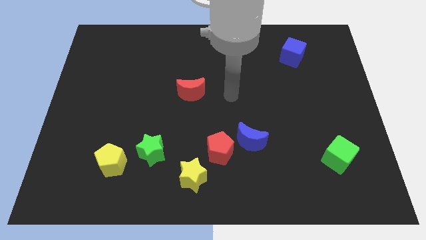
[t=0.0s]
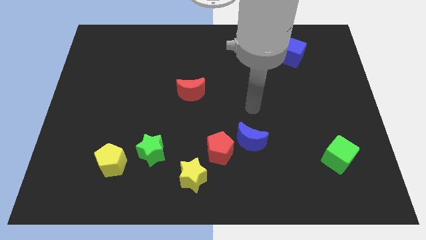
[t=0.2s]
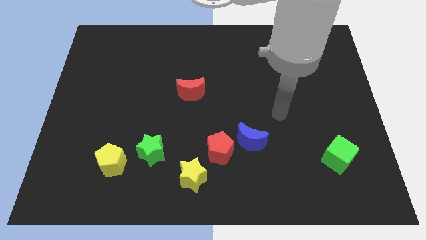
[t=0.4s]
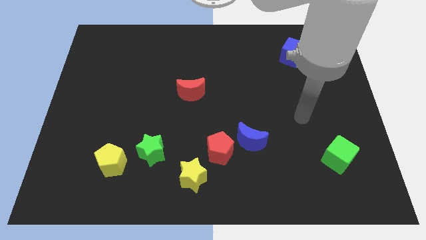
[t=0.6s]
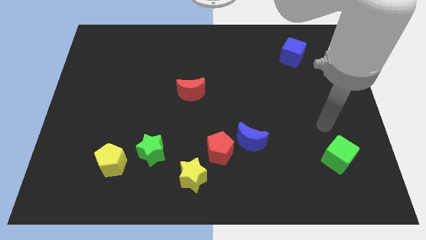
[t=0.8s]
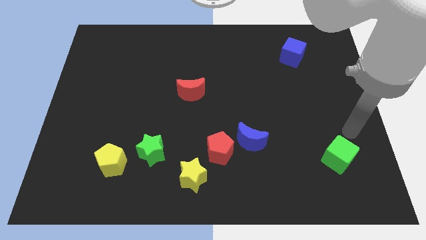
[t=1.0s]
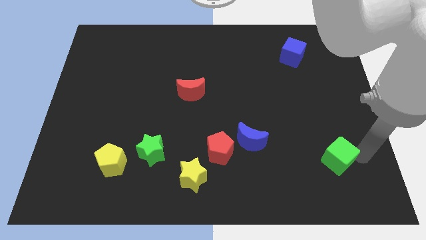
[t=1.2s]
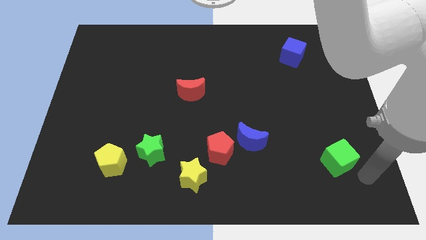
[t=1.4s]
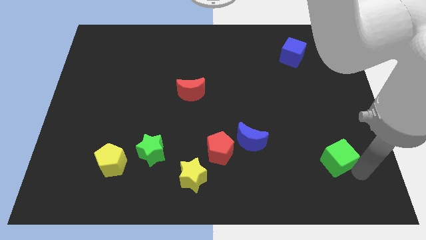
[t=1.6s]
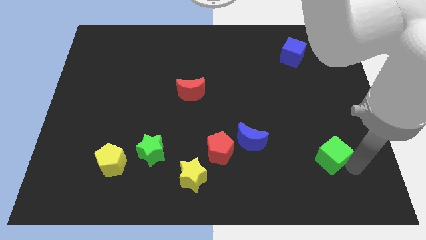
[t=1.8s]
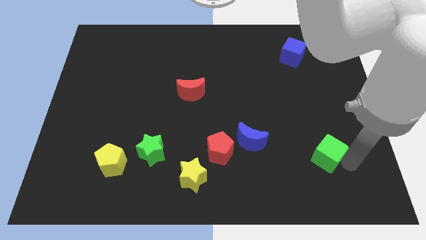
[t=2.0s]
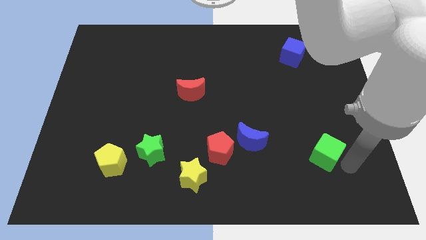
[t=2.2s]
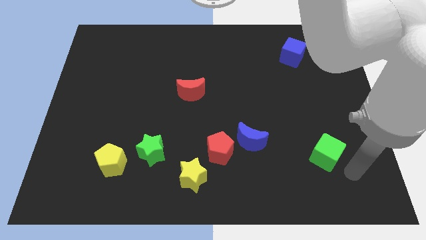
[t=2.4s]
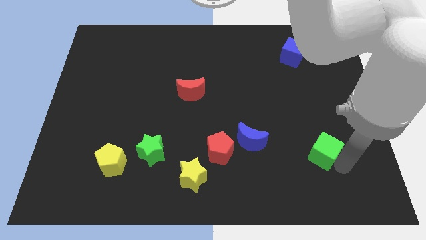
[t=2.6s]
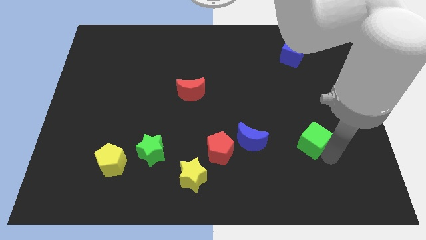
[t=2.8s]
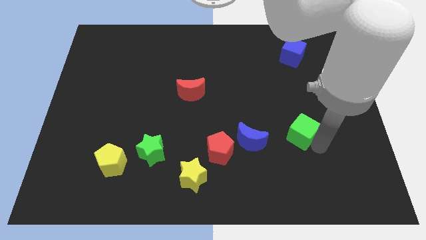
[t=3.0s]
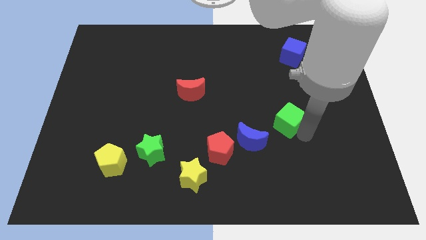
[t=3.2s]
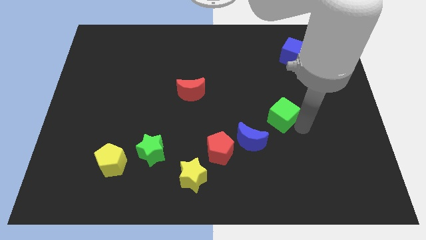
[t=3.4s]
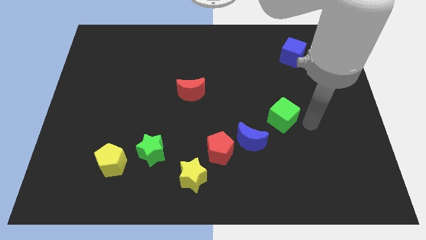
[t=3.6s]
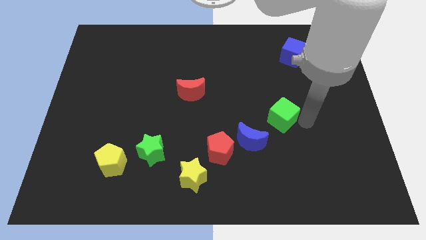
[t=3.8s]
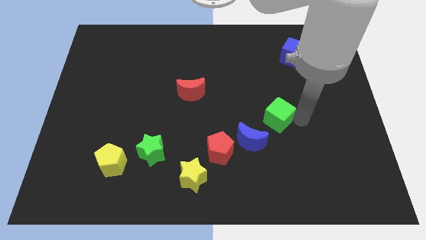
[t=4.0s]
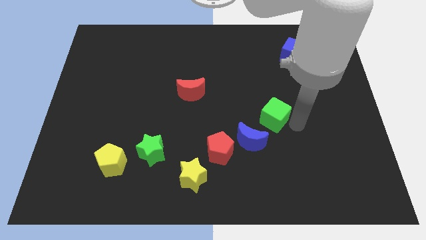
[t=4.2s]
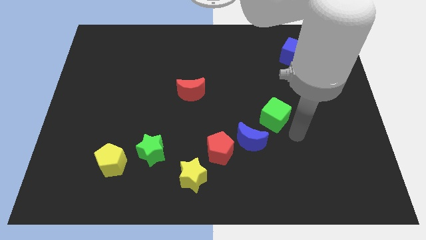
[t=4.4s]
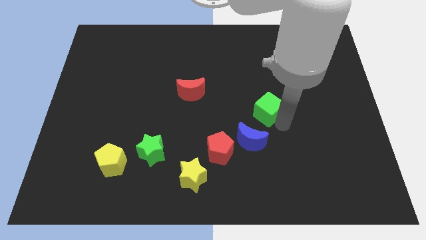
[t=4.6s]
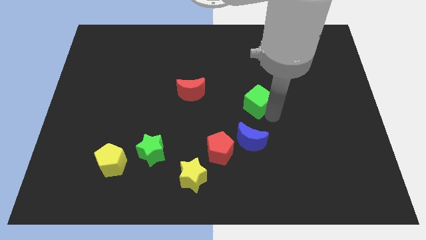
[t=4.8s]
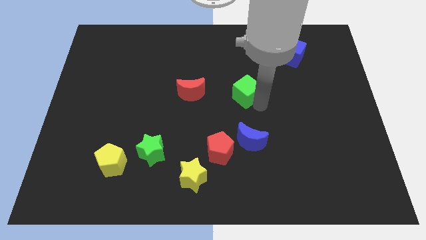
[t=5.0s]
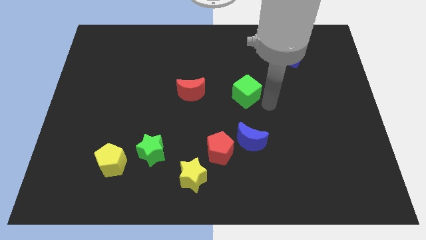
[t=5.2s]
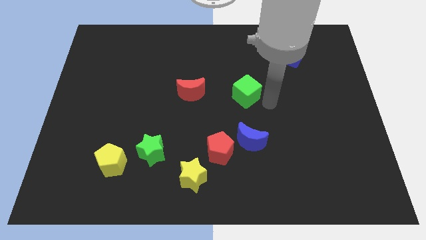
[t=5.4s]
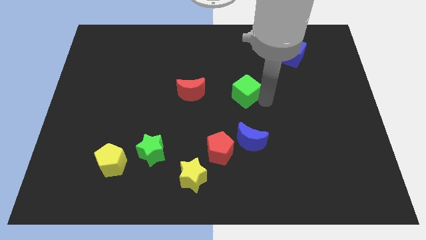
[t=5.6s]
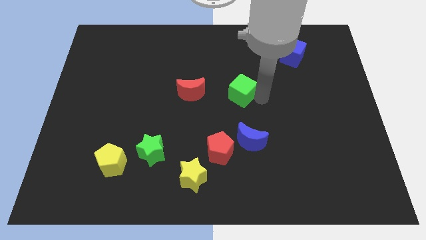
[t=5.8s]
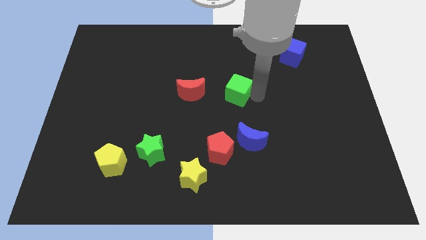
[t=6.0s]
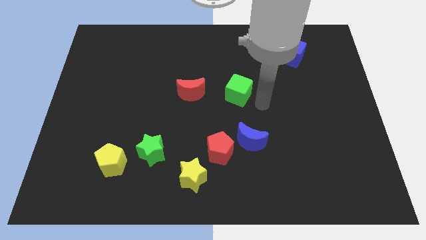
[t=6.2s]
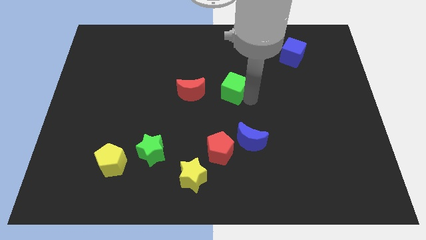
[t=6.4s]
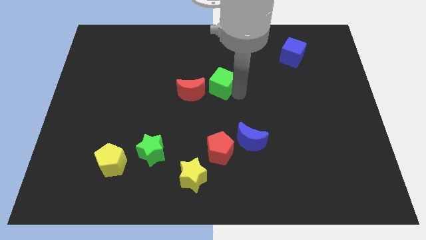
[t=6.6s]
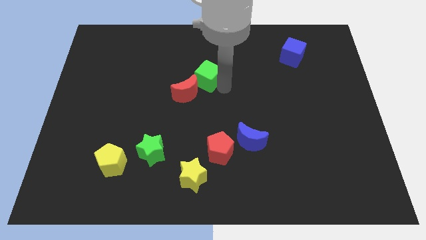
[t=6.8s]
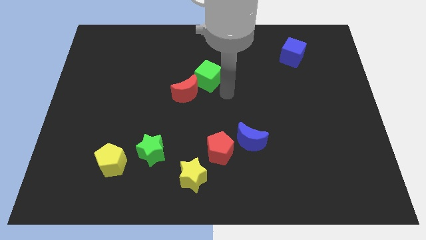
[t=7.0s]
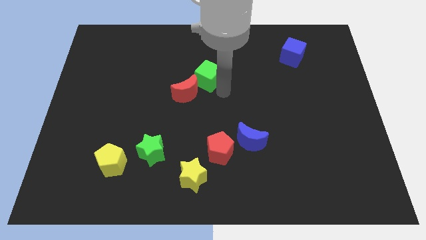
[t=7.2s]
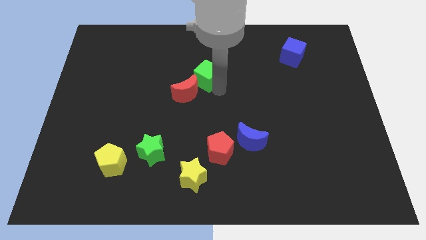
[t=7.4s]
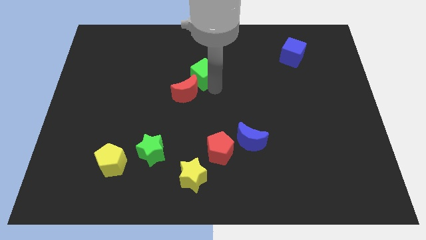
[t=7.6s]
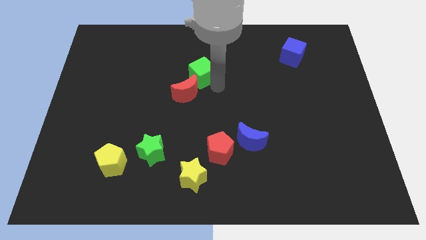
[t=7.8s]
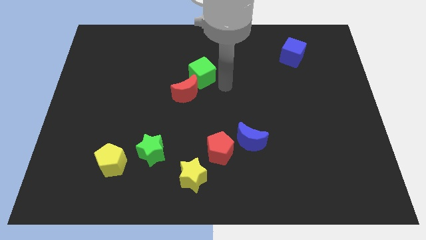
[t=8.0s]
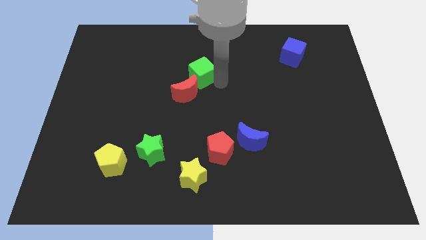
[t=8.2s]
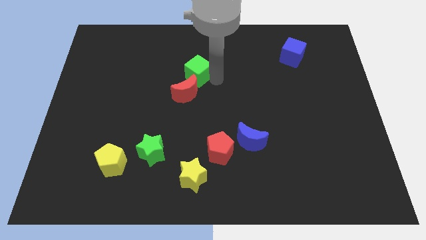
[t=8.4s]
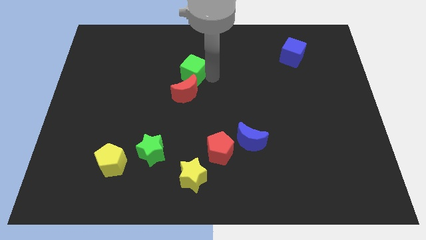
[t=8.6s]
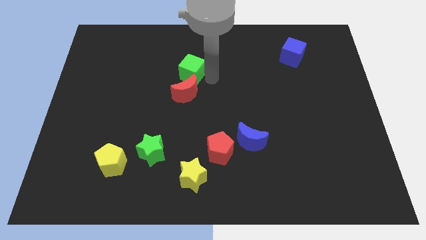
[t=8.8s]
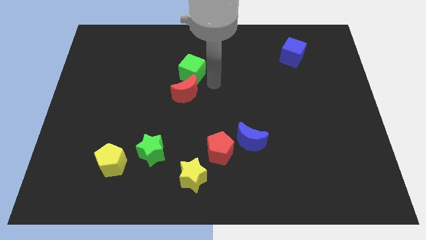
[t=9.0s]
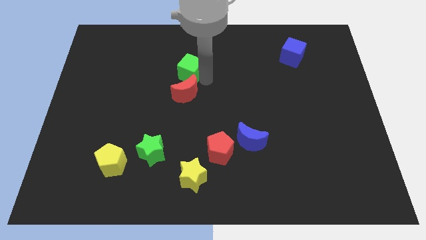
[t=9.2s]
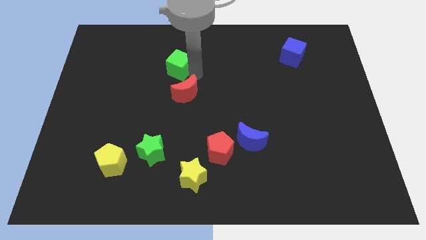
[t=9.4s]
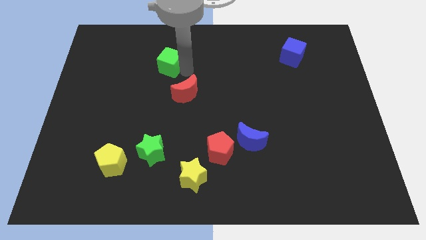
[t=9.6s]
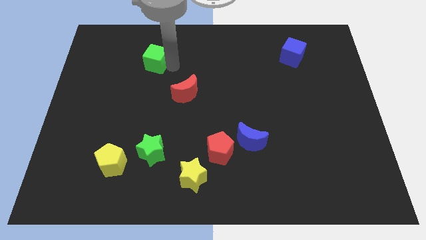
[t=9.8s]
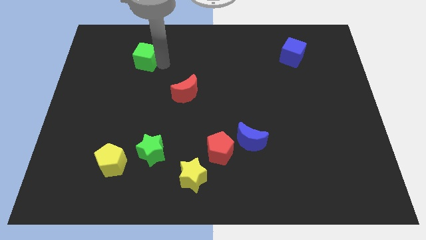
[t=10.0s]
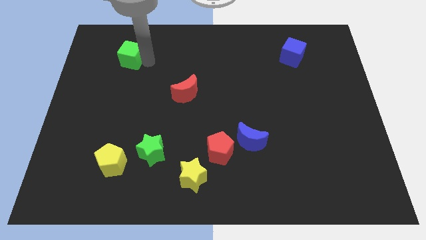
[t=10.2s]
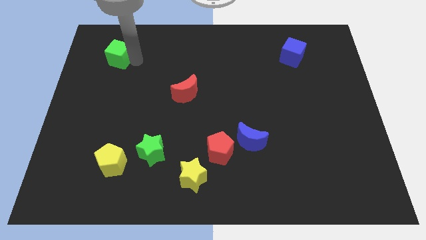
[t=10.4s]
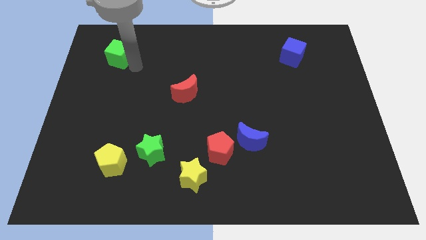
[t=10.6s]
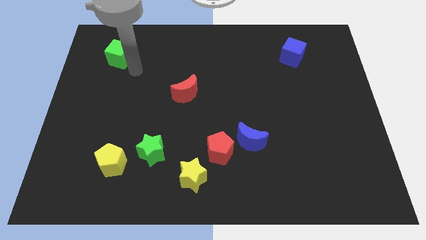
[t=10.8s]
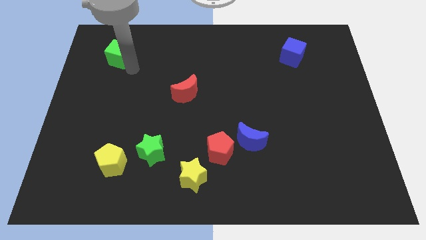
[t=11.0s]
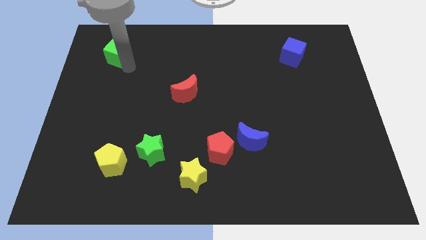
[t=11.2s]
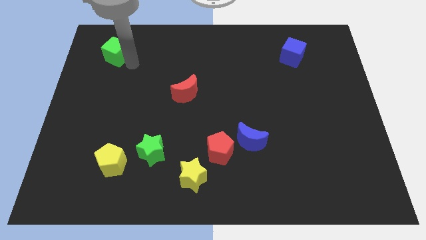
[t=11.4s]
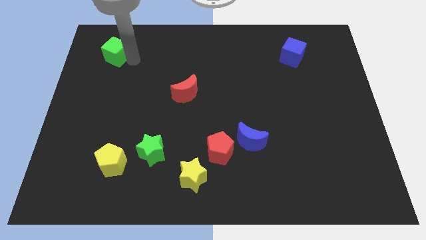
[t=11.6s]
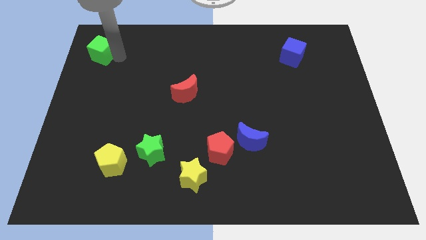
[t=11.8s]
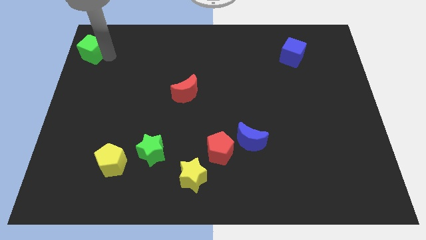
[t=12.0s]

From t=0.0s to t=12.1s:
put the green cube to the top left
